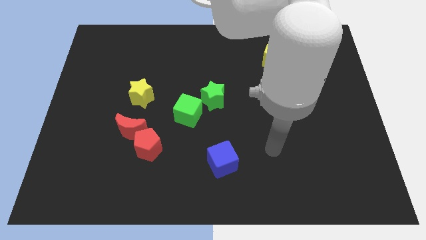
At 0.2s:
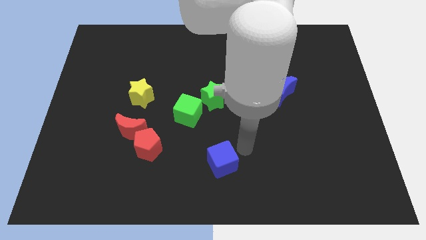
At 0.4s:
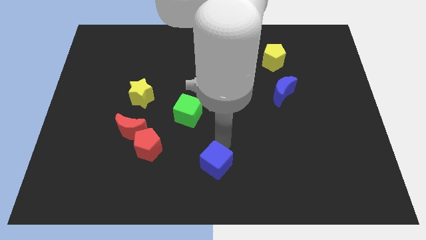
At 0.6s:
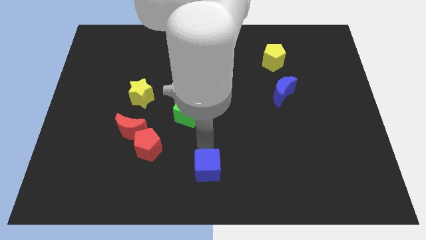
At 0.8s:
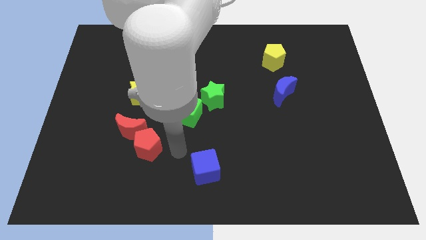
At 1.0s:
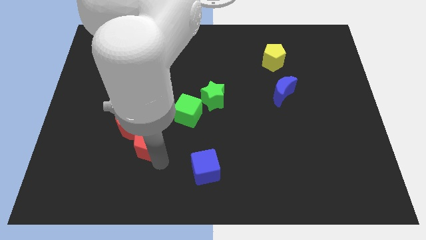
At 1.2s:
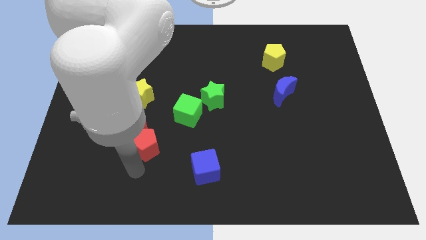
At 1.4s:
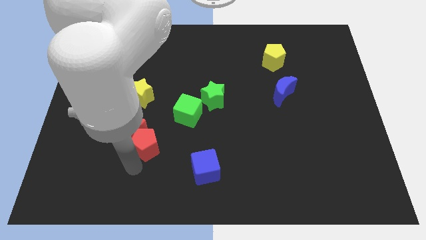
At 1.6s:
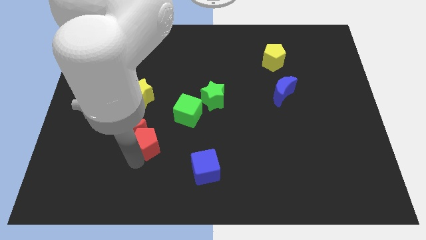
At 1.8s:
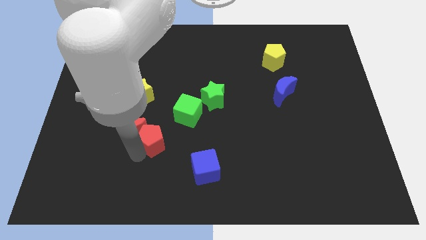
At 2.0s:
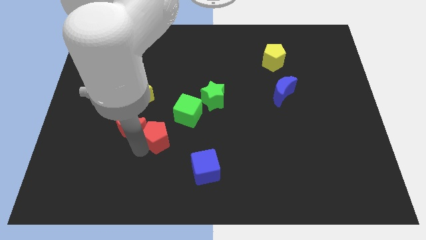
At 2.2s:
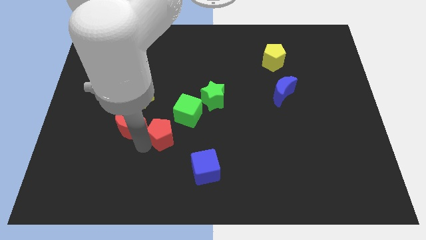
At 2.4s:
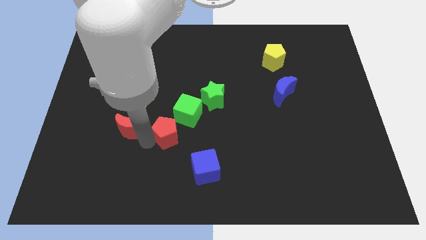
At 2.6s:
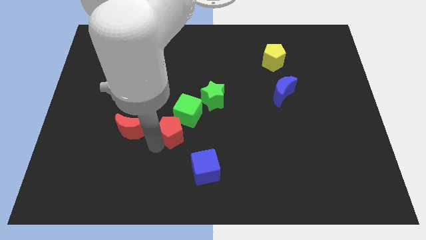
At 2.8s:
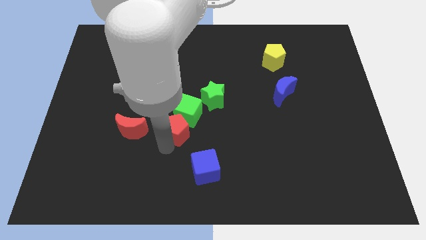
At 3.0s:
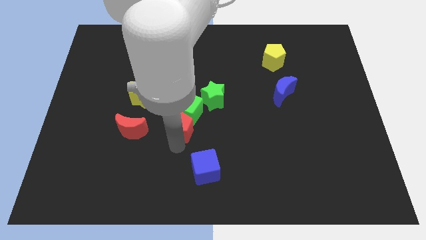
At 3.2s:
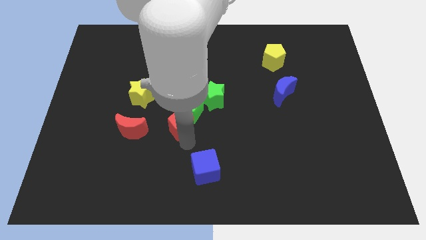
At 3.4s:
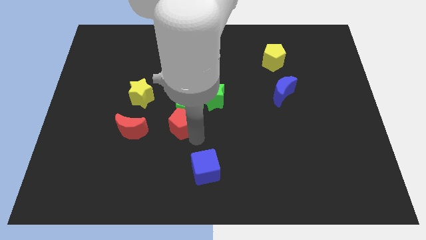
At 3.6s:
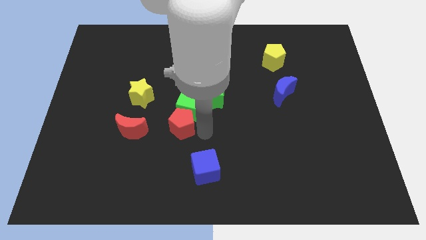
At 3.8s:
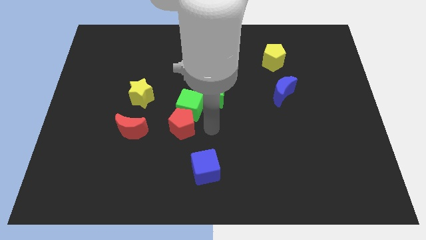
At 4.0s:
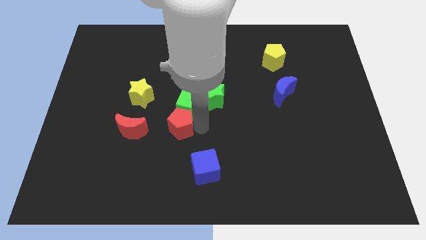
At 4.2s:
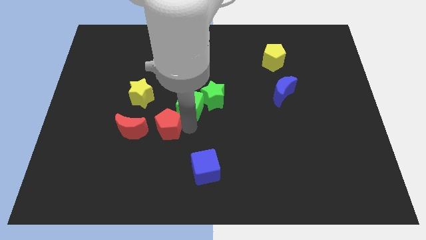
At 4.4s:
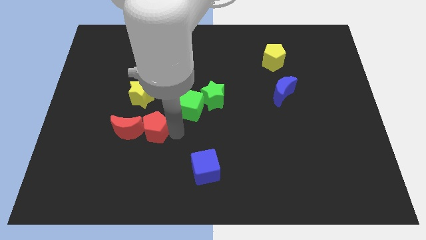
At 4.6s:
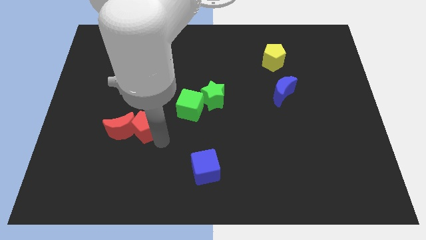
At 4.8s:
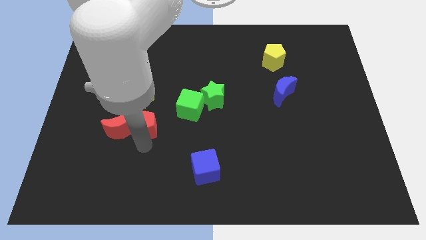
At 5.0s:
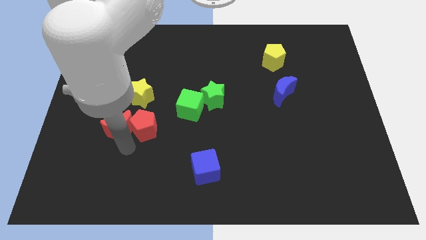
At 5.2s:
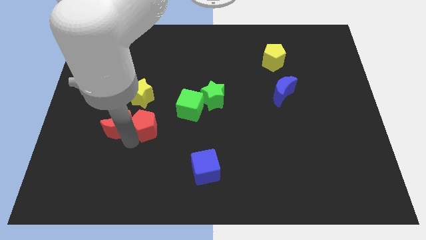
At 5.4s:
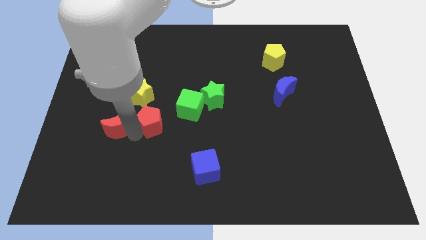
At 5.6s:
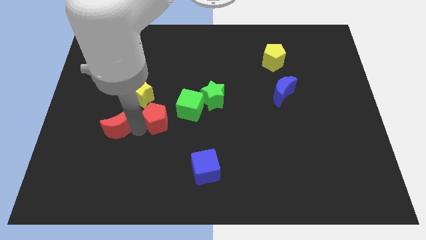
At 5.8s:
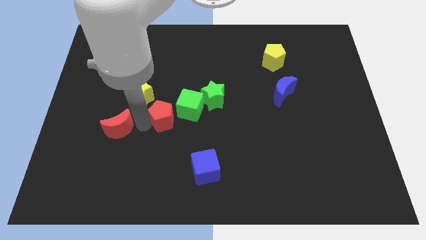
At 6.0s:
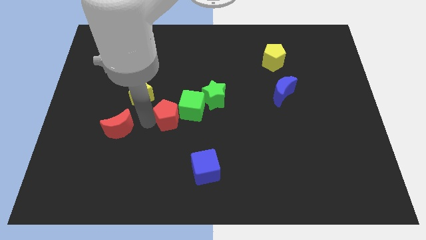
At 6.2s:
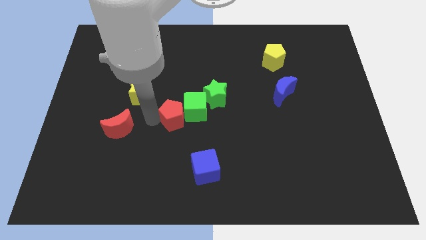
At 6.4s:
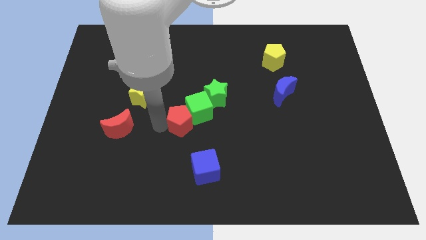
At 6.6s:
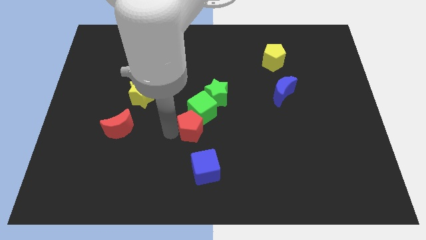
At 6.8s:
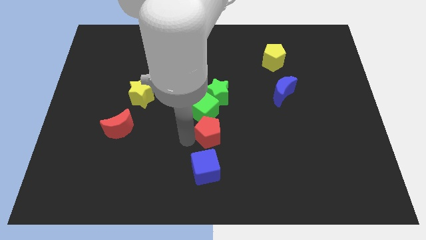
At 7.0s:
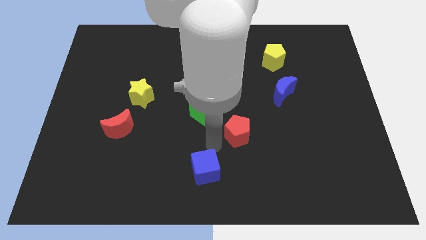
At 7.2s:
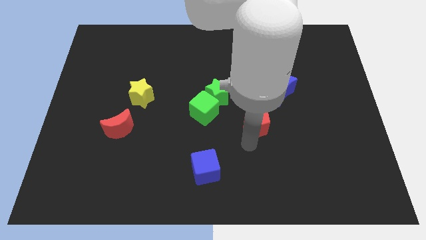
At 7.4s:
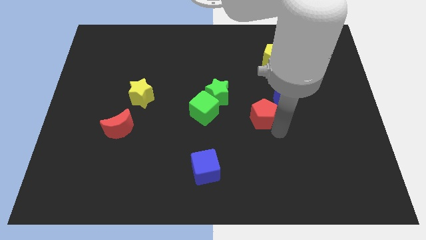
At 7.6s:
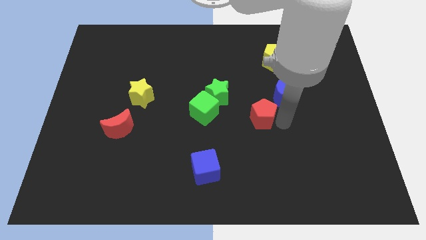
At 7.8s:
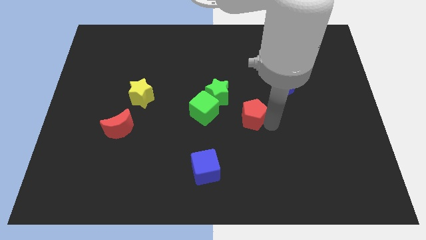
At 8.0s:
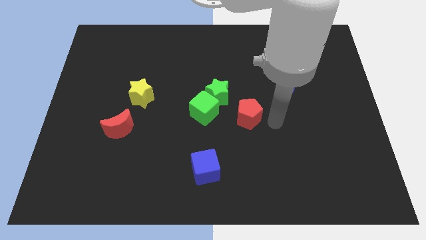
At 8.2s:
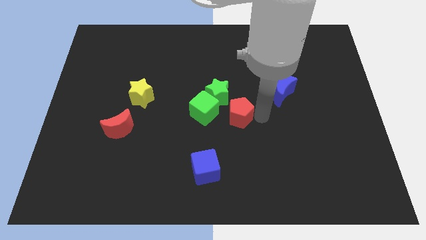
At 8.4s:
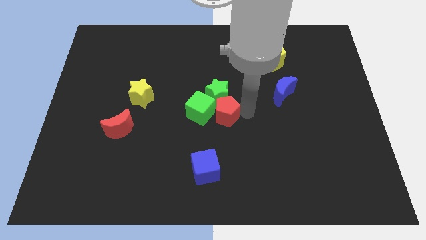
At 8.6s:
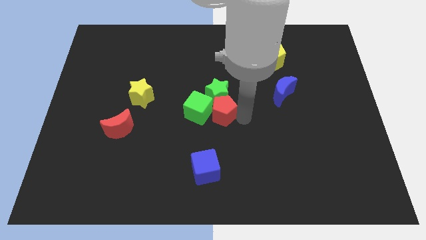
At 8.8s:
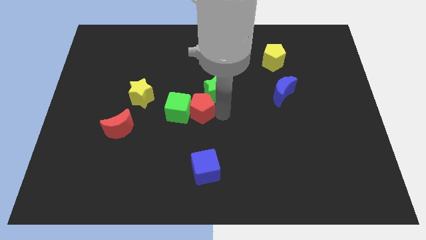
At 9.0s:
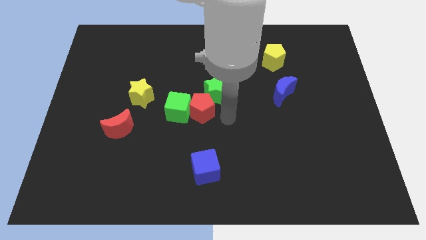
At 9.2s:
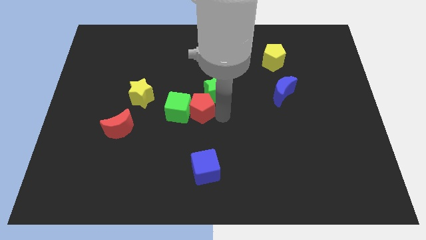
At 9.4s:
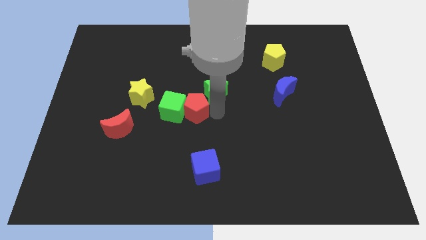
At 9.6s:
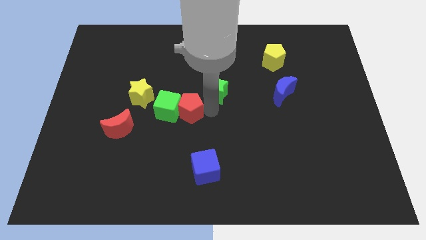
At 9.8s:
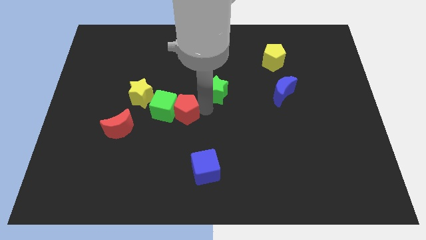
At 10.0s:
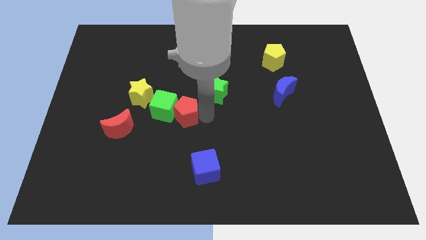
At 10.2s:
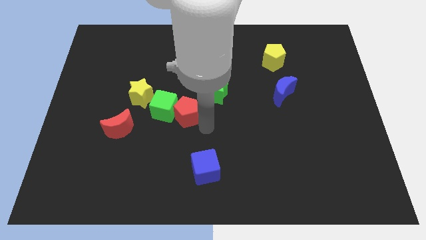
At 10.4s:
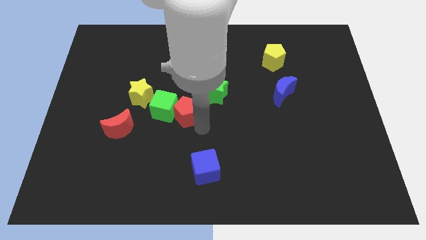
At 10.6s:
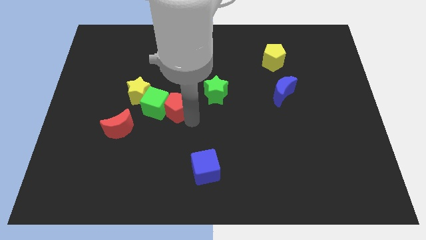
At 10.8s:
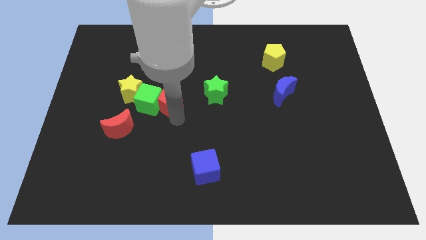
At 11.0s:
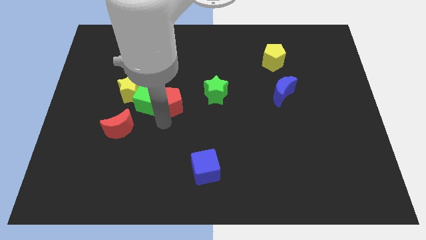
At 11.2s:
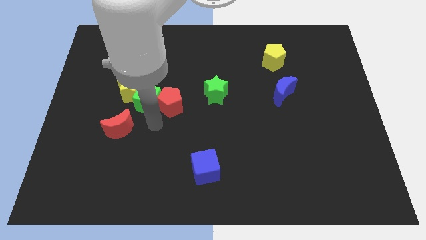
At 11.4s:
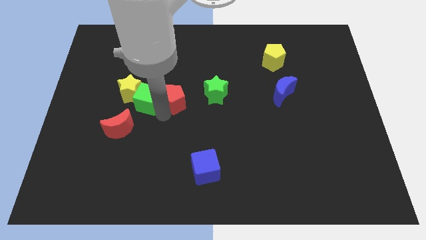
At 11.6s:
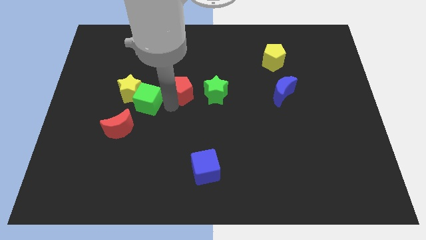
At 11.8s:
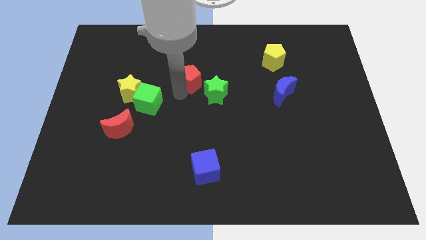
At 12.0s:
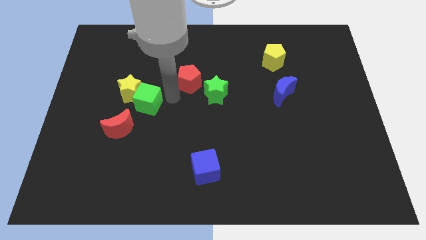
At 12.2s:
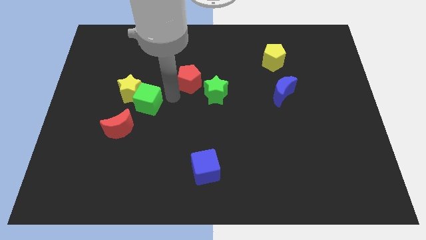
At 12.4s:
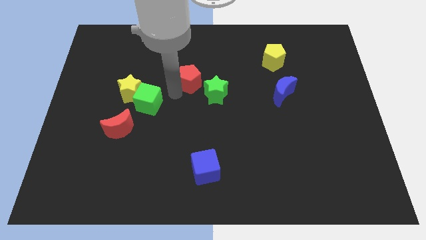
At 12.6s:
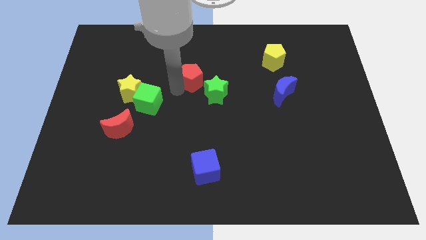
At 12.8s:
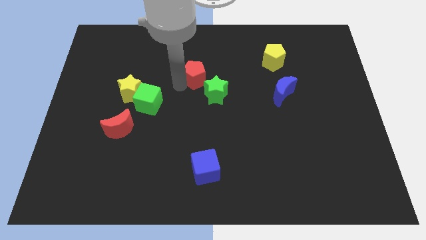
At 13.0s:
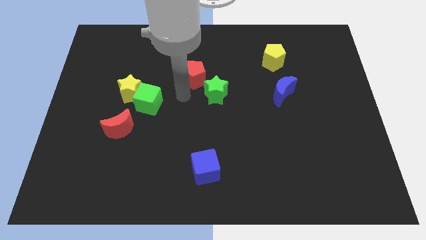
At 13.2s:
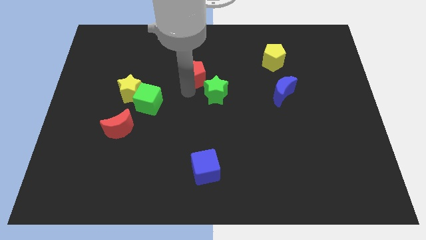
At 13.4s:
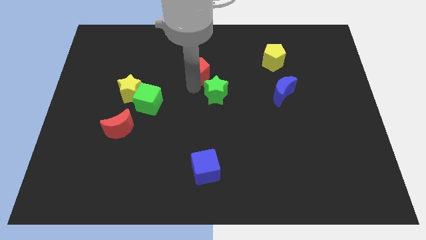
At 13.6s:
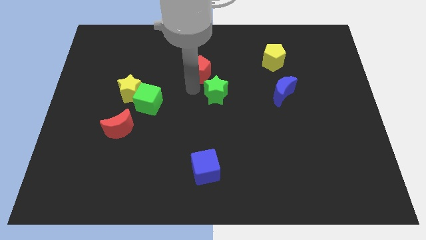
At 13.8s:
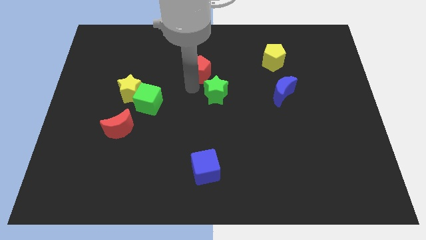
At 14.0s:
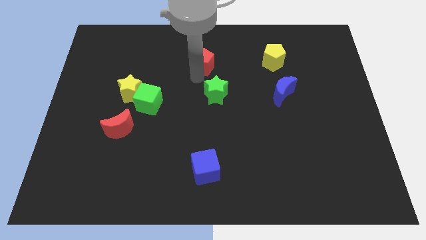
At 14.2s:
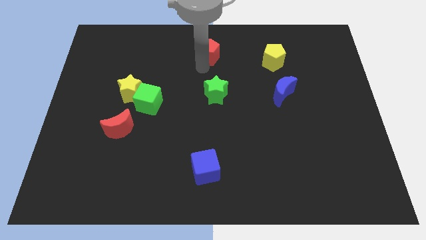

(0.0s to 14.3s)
put the red pentagon to the top
